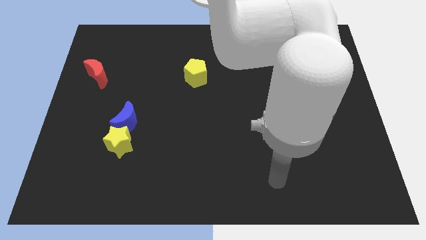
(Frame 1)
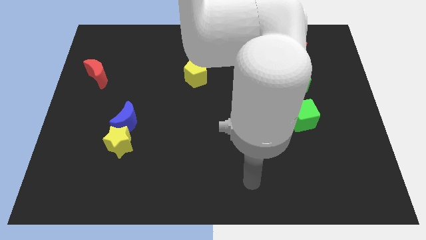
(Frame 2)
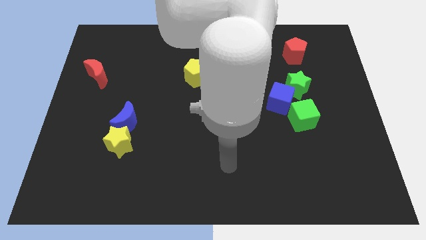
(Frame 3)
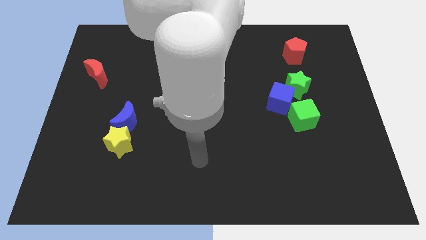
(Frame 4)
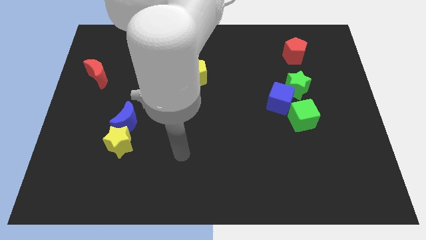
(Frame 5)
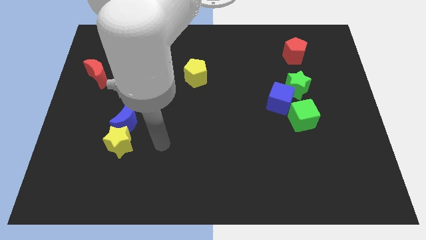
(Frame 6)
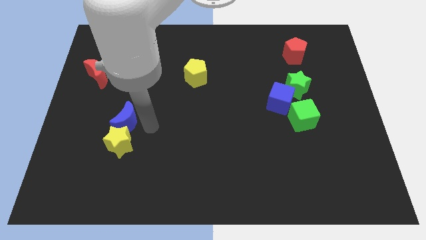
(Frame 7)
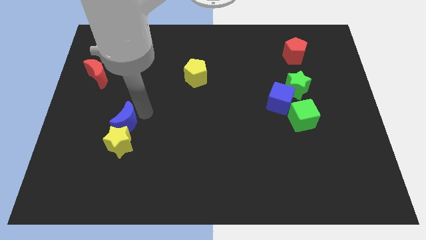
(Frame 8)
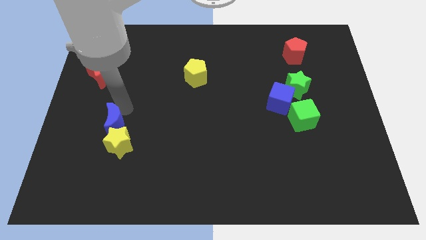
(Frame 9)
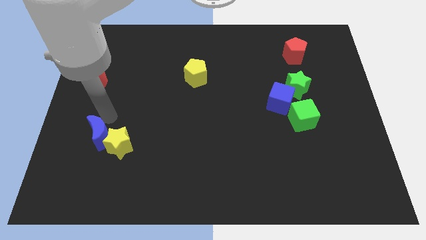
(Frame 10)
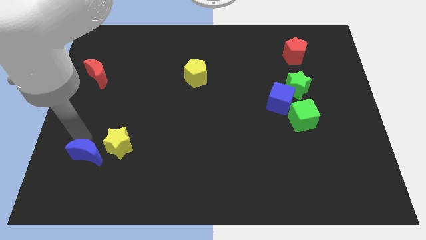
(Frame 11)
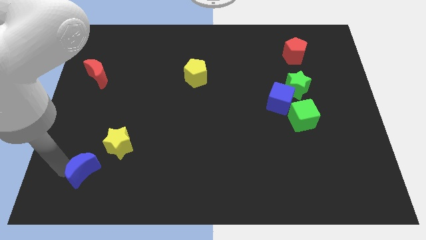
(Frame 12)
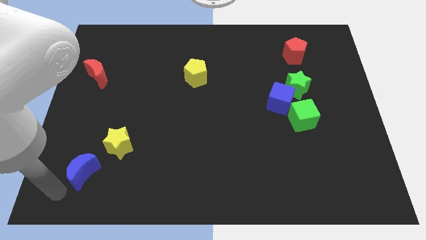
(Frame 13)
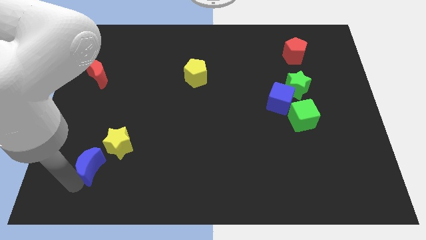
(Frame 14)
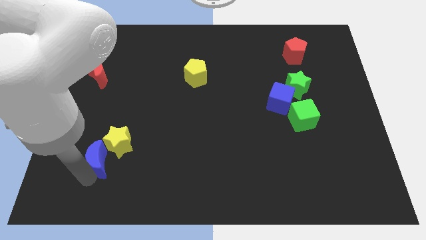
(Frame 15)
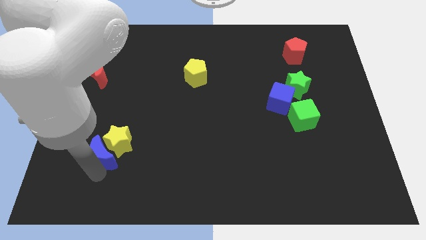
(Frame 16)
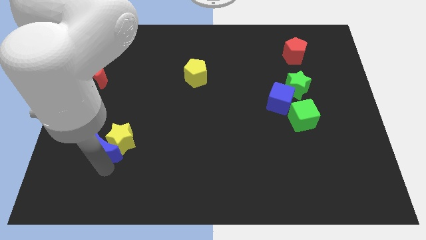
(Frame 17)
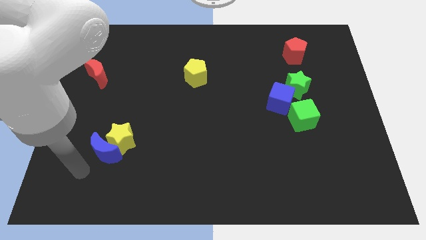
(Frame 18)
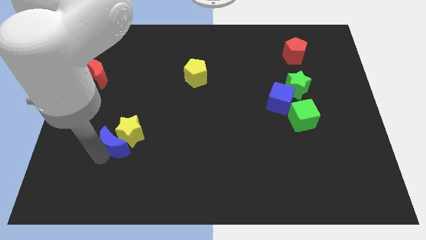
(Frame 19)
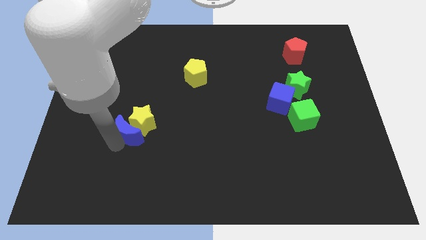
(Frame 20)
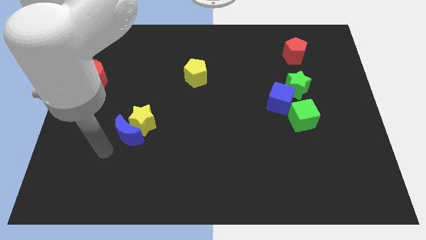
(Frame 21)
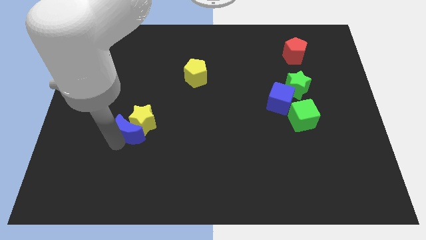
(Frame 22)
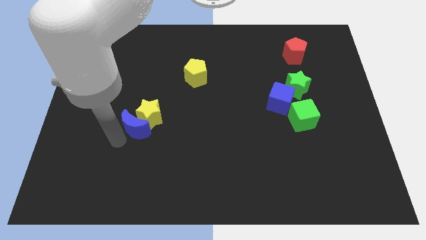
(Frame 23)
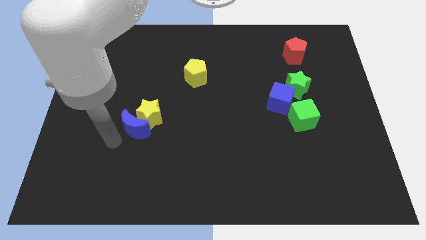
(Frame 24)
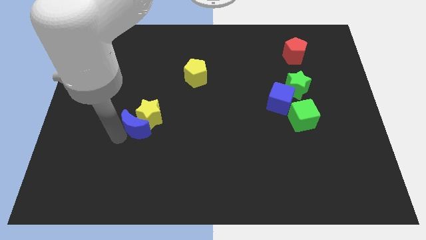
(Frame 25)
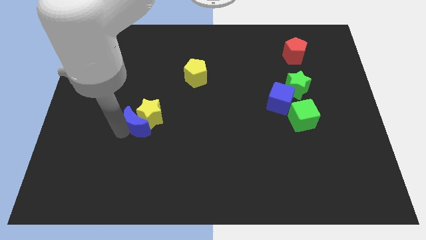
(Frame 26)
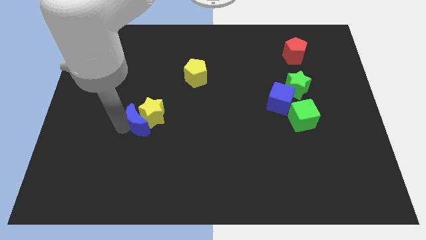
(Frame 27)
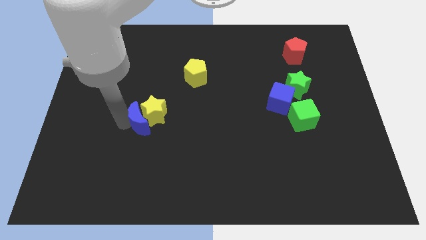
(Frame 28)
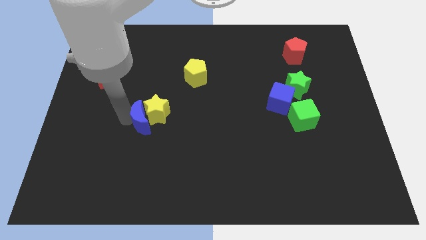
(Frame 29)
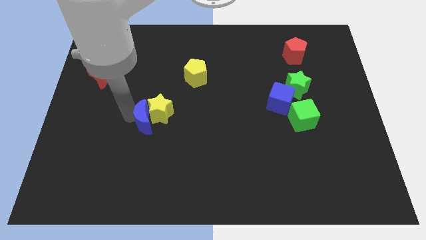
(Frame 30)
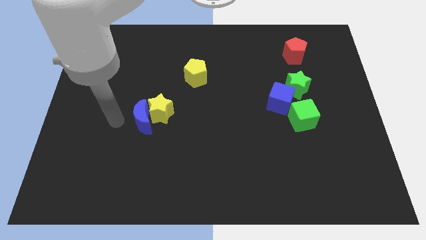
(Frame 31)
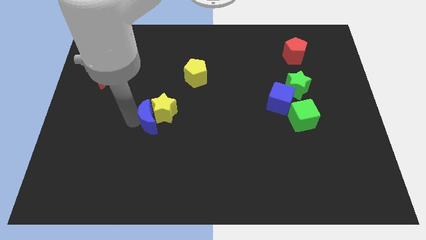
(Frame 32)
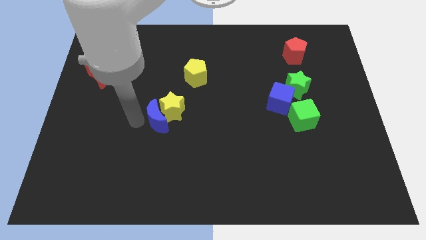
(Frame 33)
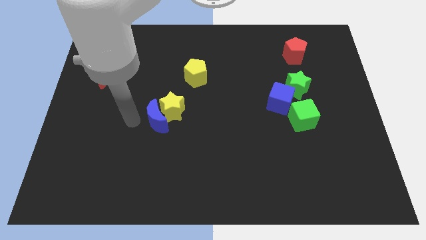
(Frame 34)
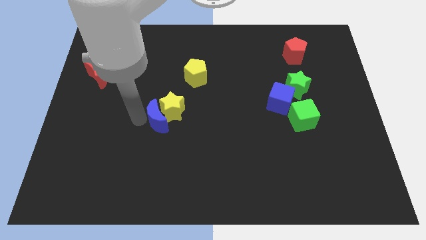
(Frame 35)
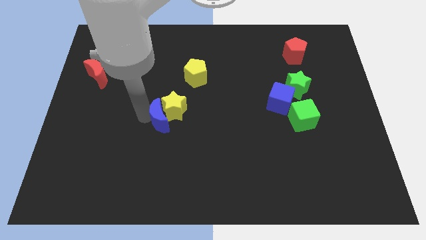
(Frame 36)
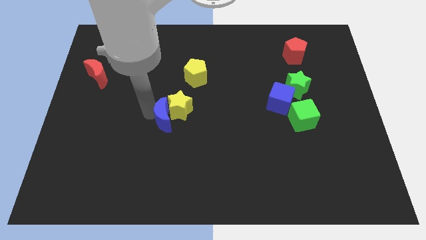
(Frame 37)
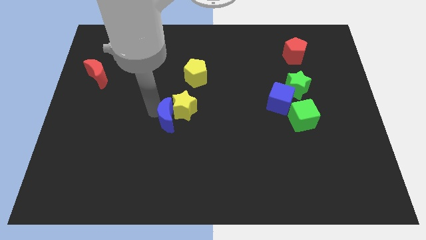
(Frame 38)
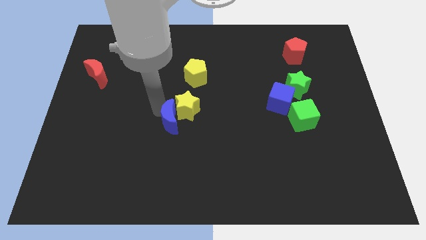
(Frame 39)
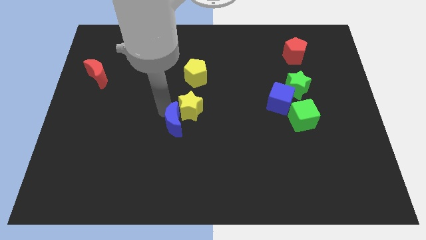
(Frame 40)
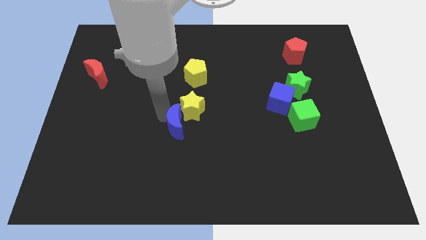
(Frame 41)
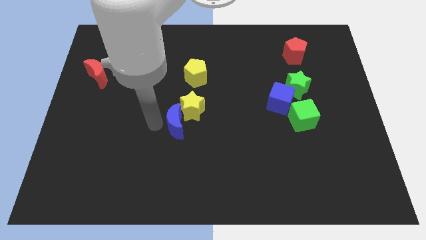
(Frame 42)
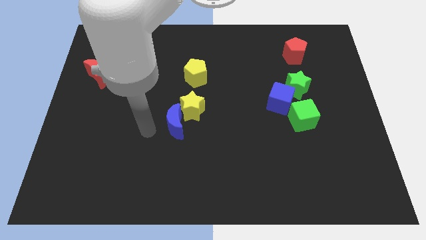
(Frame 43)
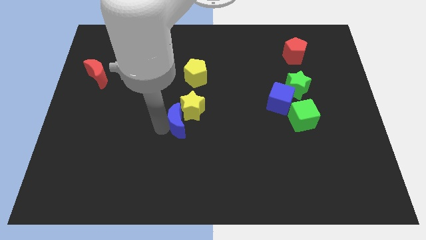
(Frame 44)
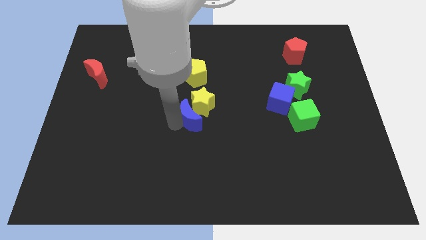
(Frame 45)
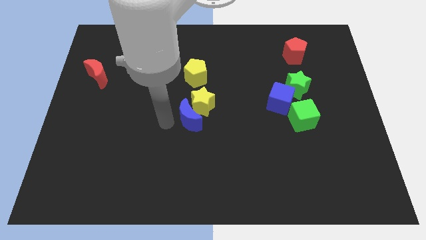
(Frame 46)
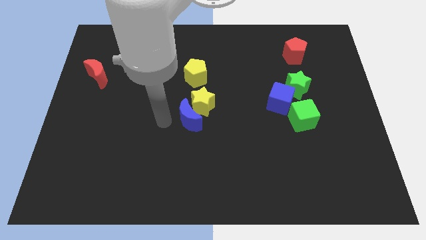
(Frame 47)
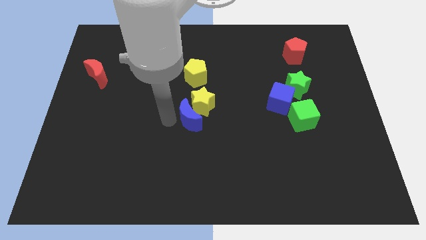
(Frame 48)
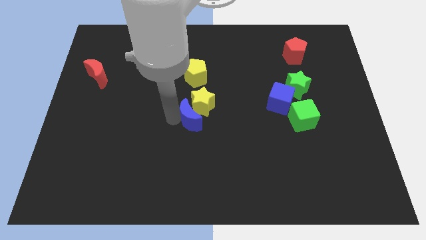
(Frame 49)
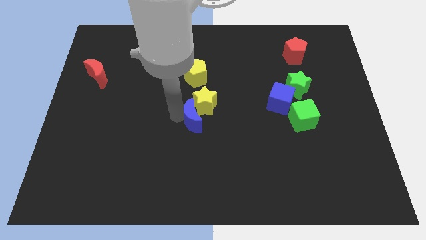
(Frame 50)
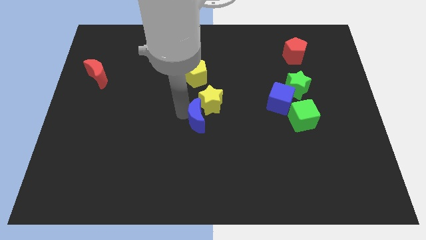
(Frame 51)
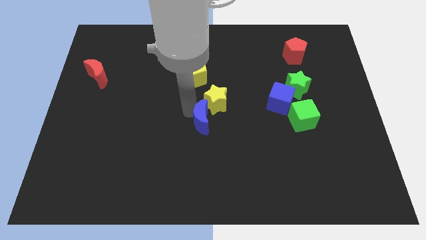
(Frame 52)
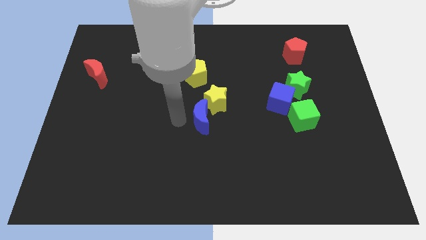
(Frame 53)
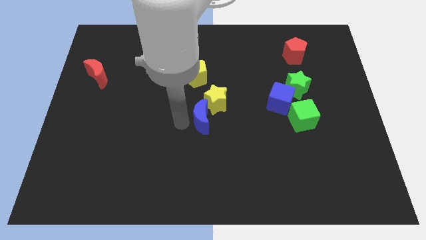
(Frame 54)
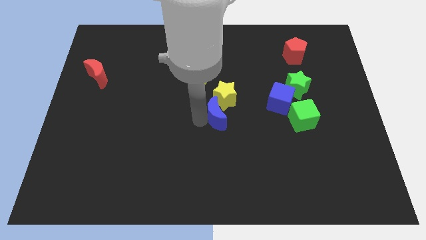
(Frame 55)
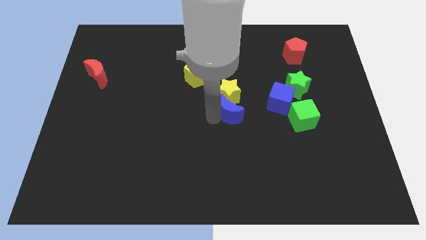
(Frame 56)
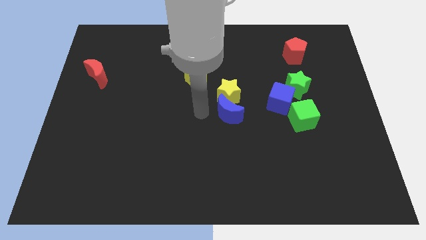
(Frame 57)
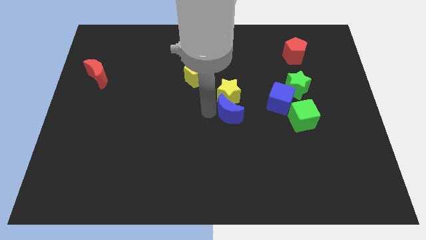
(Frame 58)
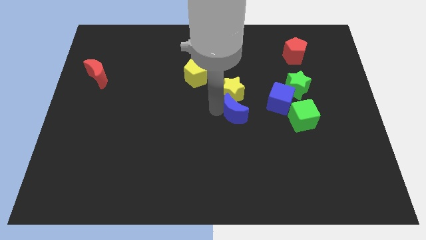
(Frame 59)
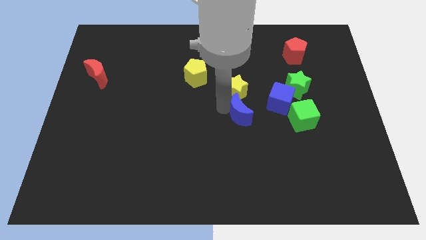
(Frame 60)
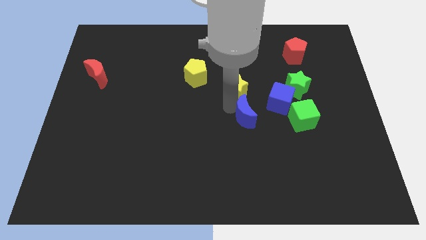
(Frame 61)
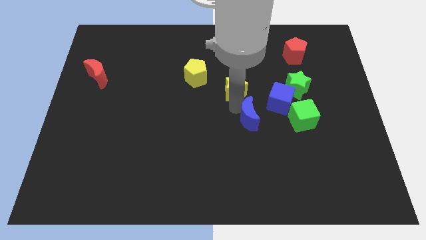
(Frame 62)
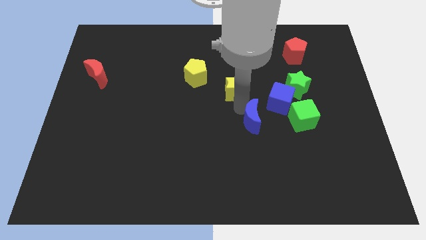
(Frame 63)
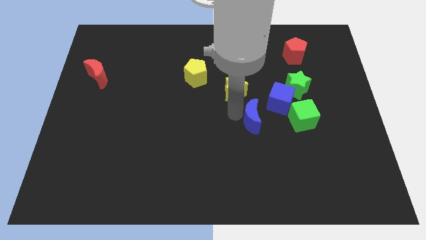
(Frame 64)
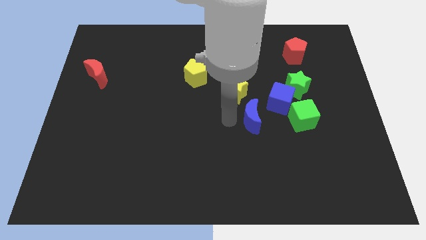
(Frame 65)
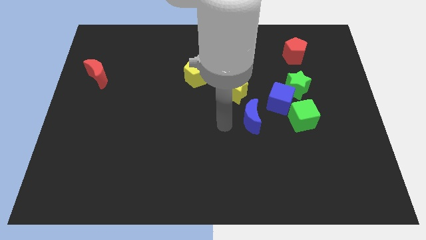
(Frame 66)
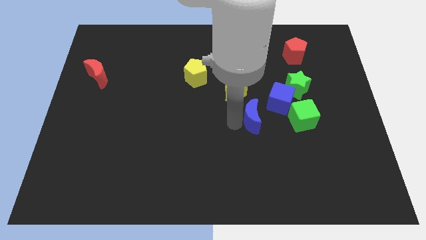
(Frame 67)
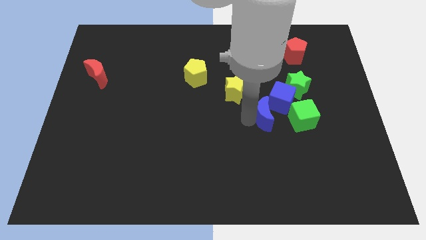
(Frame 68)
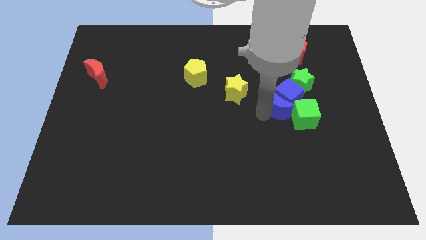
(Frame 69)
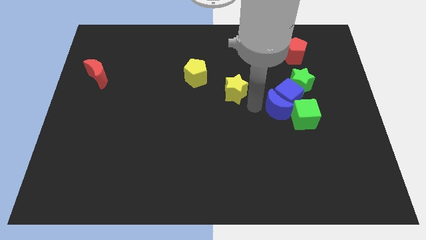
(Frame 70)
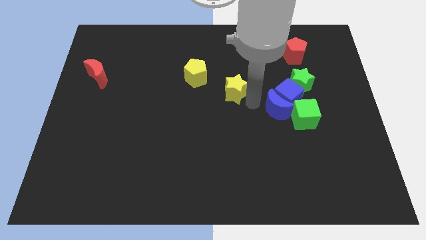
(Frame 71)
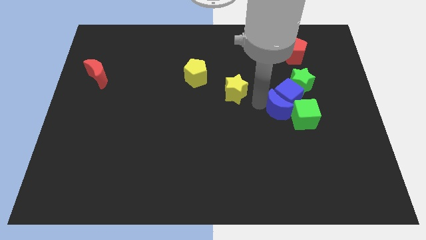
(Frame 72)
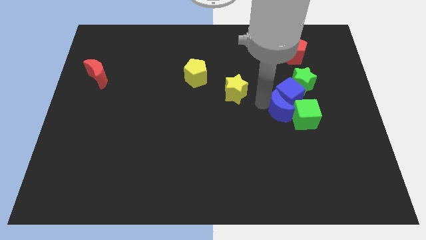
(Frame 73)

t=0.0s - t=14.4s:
put the blue moon to the green cube
